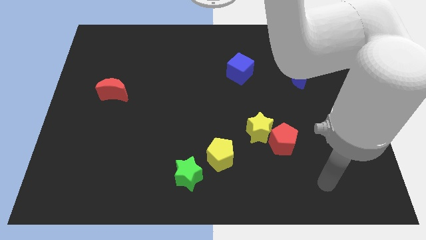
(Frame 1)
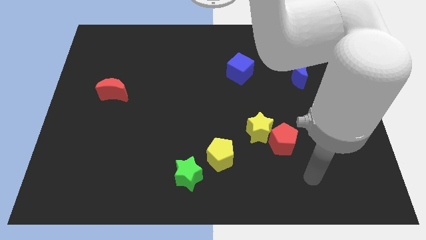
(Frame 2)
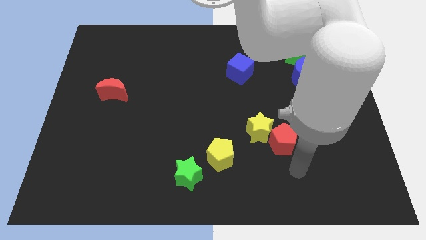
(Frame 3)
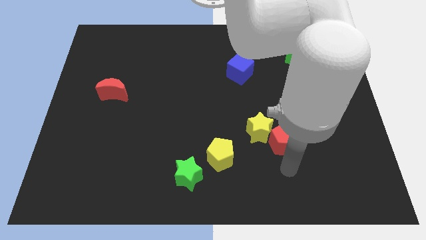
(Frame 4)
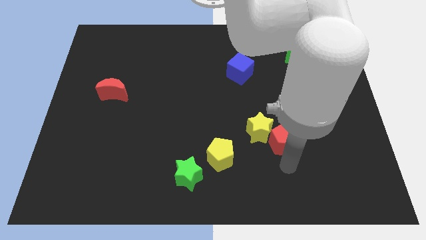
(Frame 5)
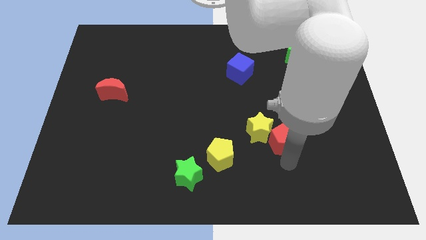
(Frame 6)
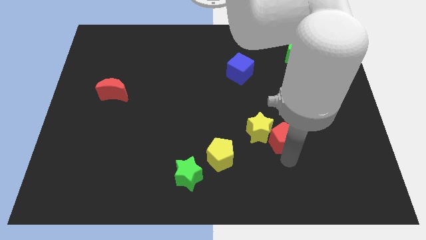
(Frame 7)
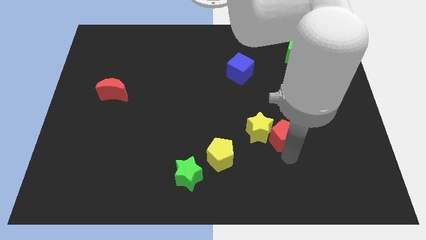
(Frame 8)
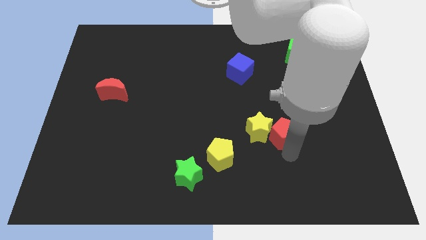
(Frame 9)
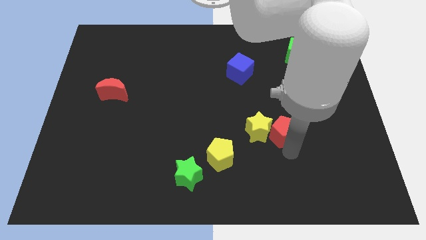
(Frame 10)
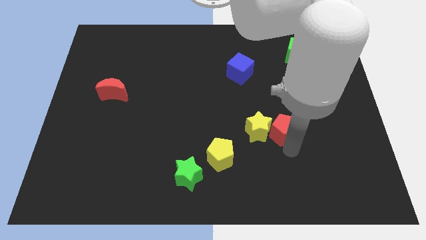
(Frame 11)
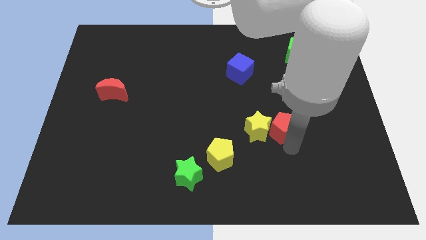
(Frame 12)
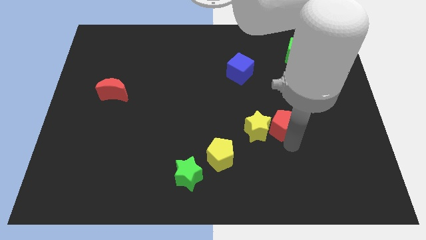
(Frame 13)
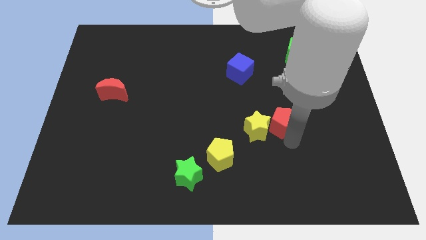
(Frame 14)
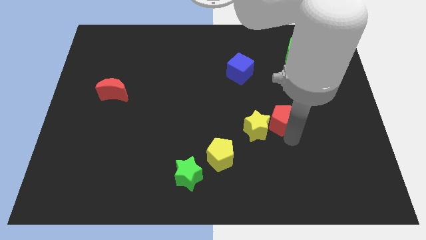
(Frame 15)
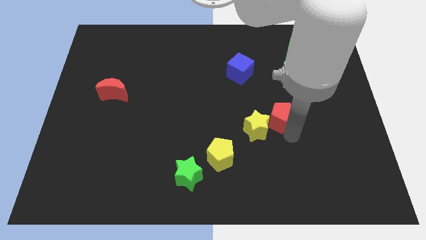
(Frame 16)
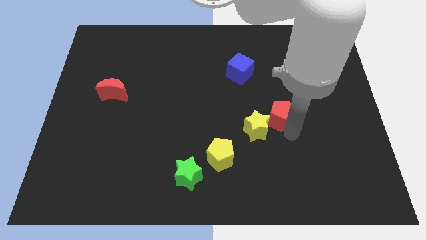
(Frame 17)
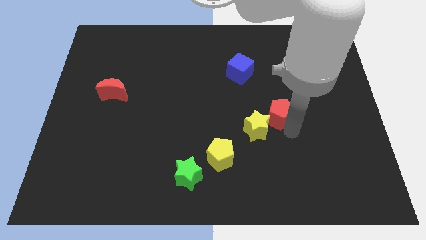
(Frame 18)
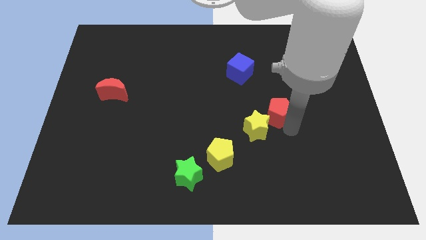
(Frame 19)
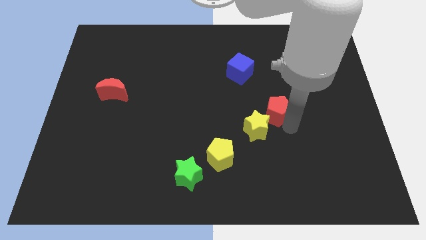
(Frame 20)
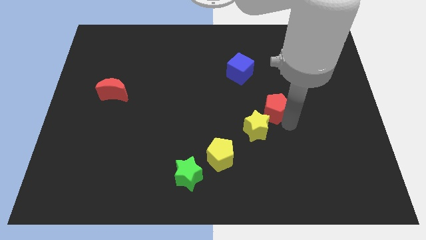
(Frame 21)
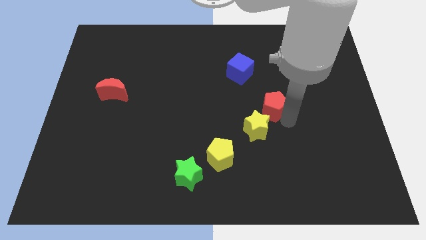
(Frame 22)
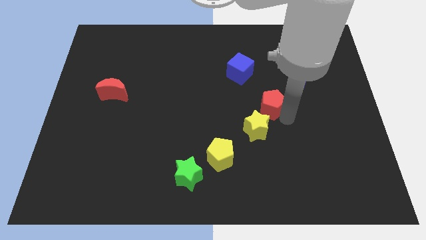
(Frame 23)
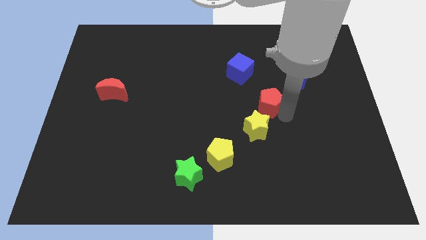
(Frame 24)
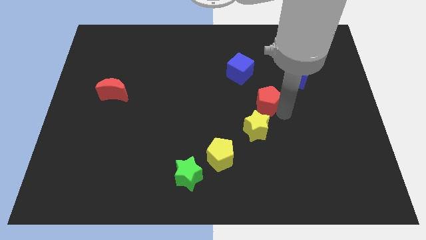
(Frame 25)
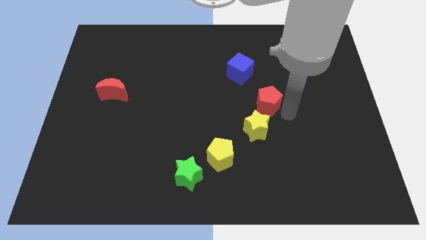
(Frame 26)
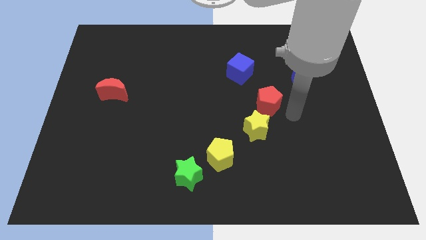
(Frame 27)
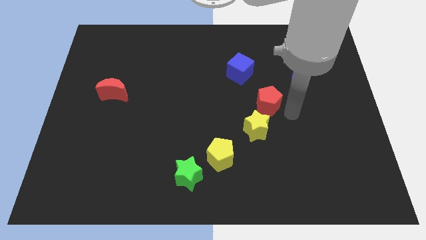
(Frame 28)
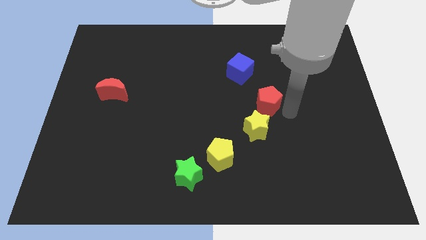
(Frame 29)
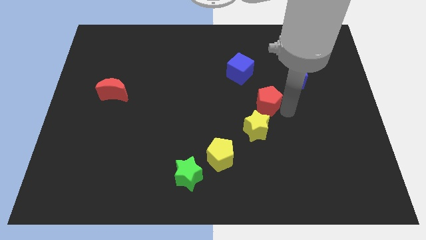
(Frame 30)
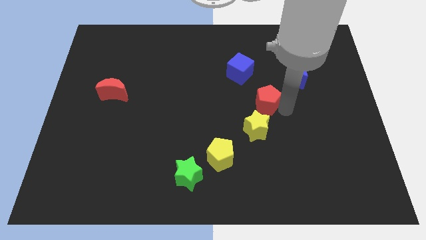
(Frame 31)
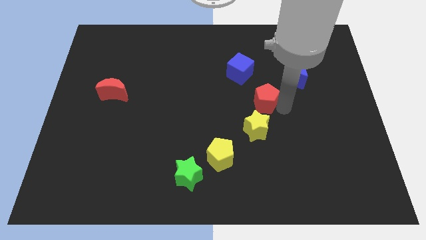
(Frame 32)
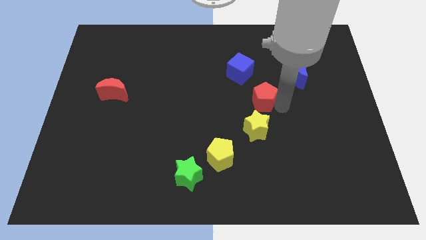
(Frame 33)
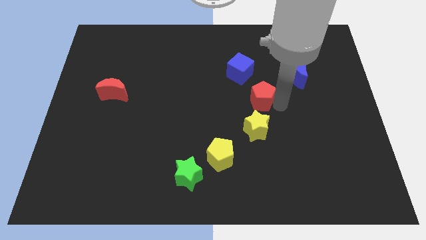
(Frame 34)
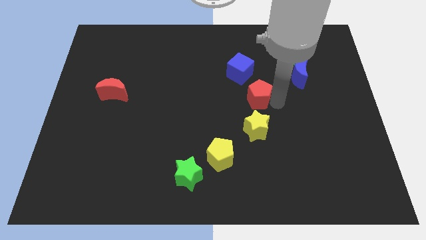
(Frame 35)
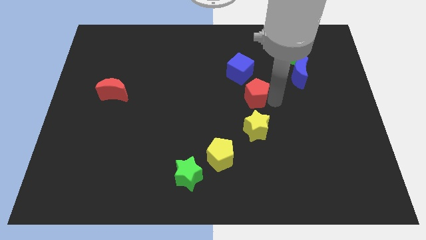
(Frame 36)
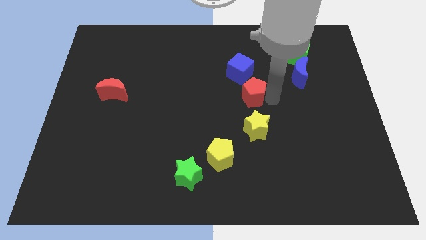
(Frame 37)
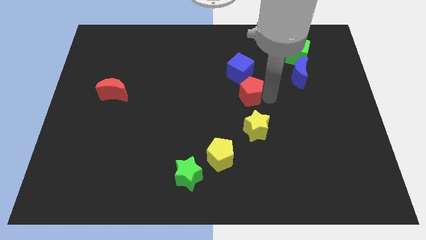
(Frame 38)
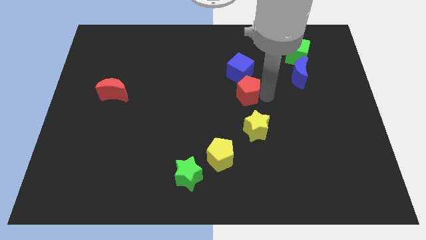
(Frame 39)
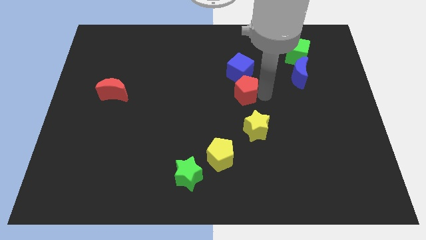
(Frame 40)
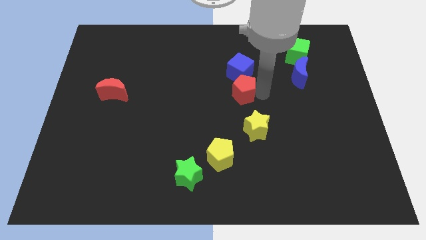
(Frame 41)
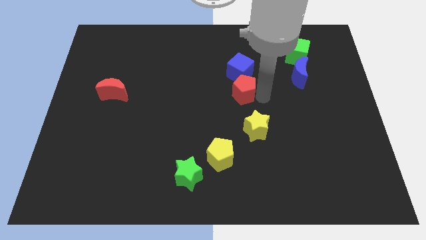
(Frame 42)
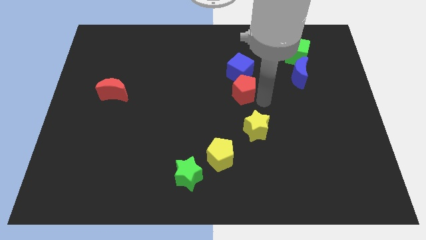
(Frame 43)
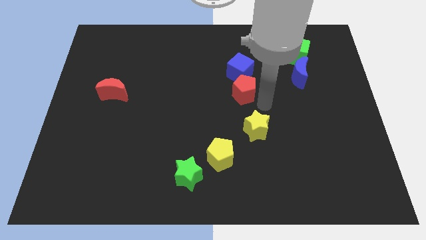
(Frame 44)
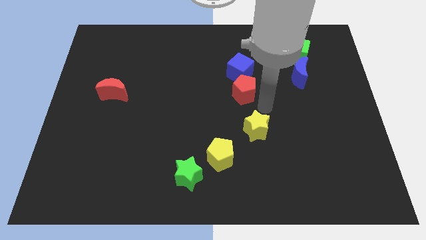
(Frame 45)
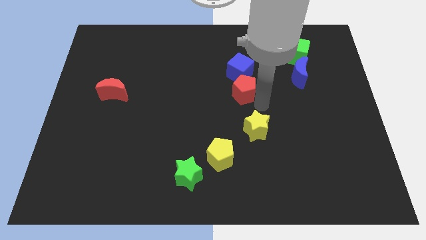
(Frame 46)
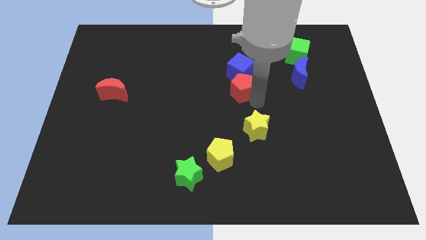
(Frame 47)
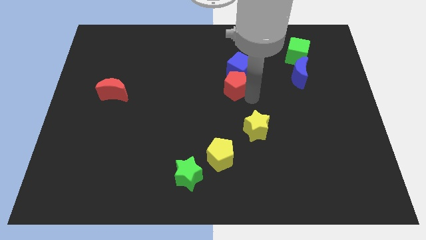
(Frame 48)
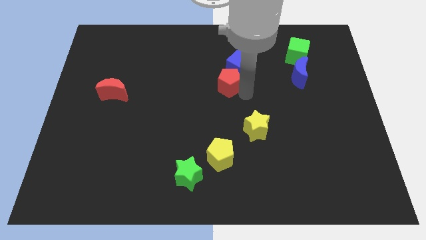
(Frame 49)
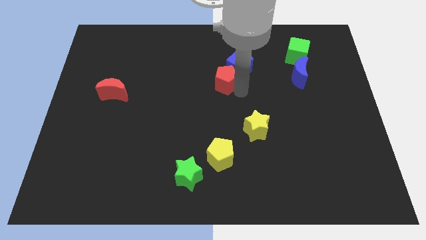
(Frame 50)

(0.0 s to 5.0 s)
push the red pentagon diagonally upwards and to the left

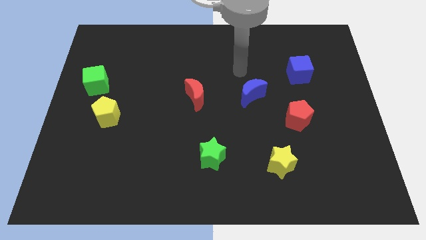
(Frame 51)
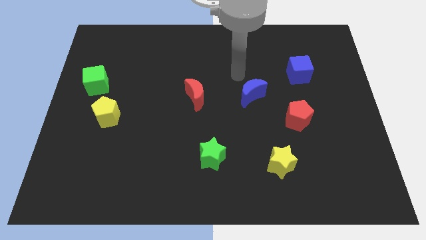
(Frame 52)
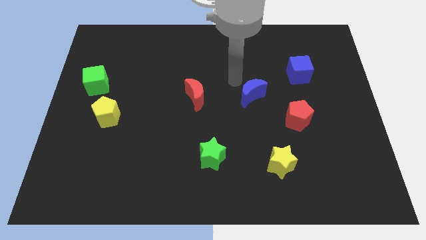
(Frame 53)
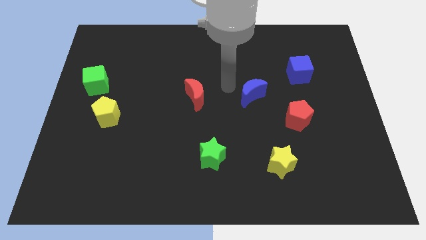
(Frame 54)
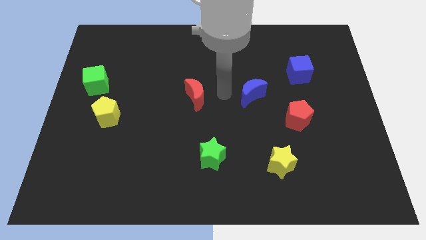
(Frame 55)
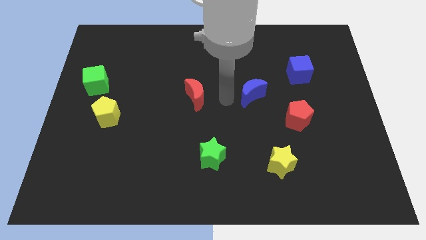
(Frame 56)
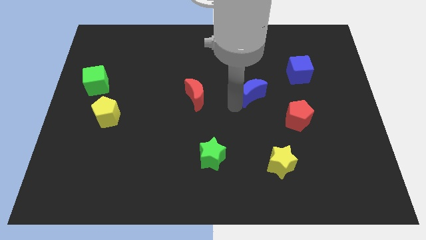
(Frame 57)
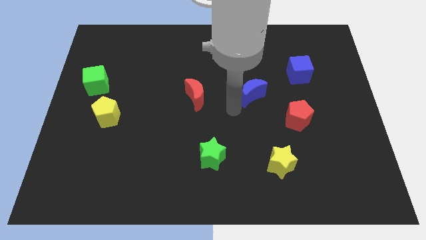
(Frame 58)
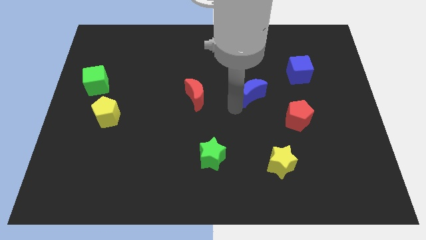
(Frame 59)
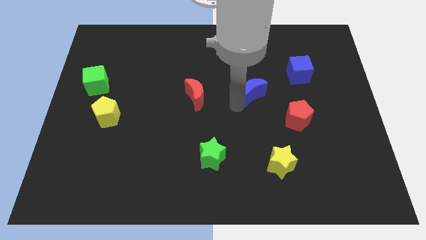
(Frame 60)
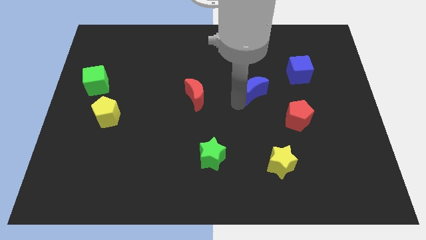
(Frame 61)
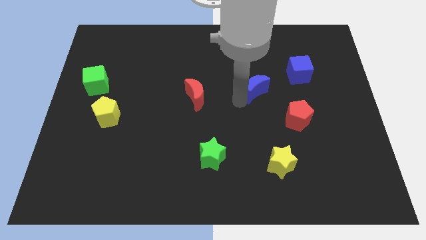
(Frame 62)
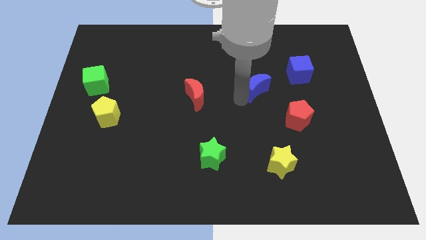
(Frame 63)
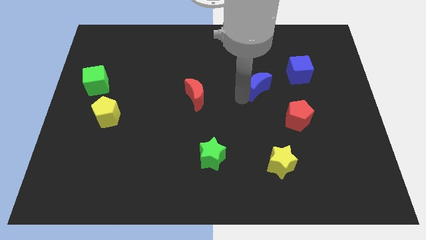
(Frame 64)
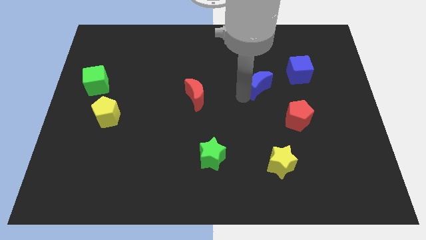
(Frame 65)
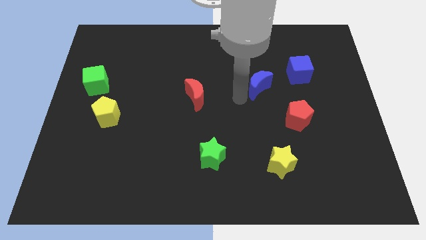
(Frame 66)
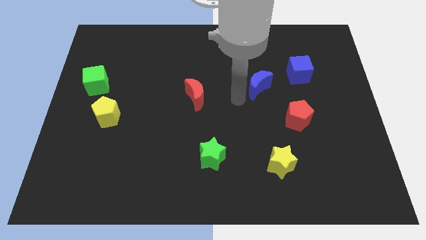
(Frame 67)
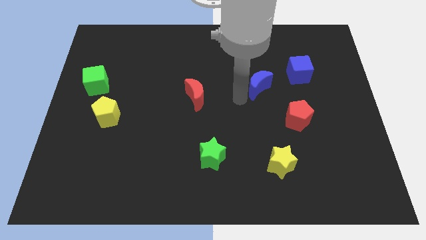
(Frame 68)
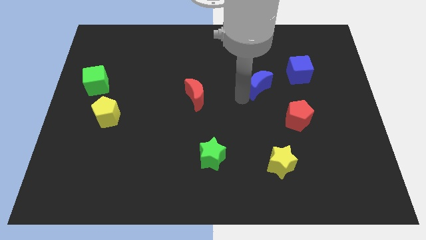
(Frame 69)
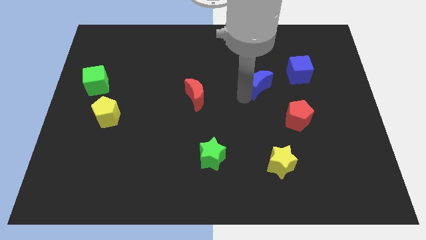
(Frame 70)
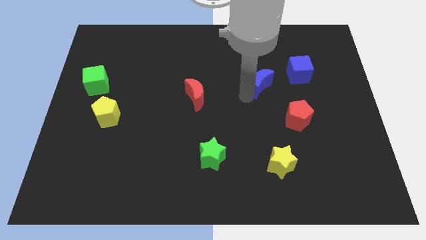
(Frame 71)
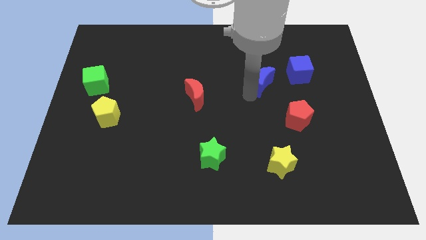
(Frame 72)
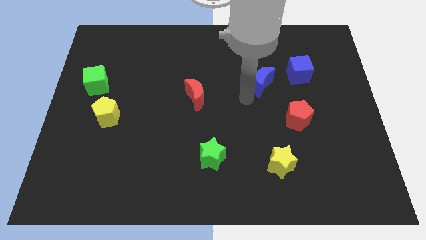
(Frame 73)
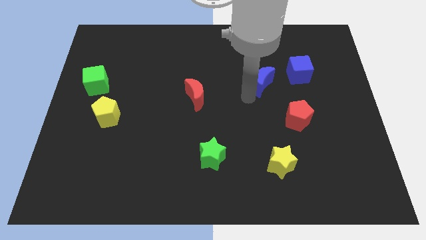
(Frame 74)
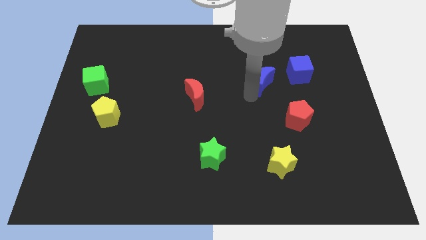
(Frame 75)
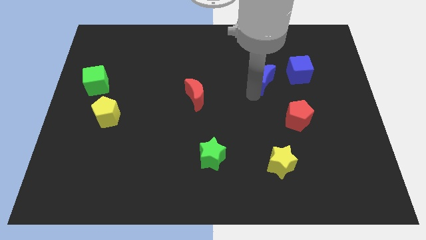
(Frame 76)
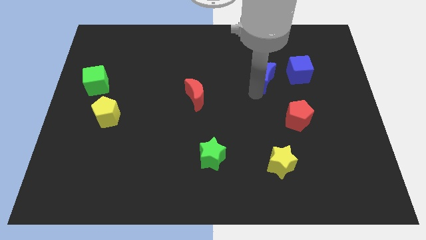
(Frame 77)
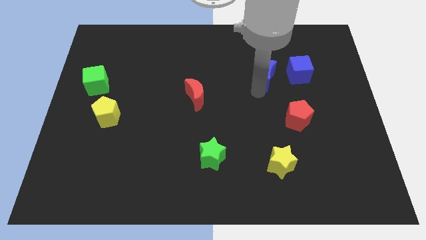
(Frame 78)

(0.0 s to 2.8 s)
slightly push the blue moon up and to the right diagonally

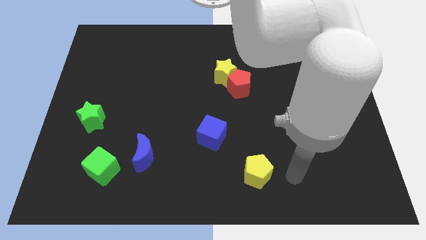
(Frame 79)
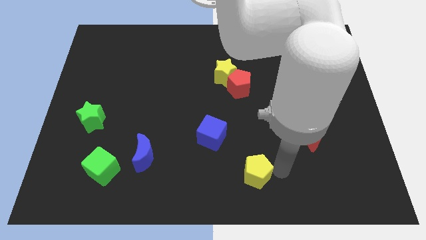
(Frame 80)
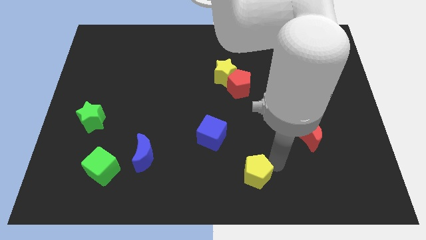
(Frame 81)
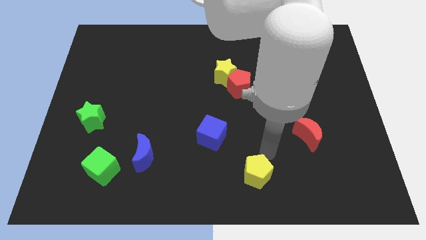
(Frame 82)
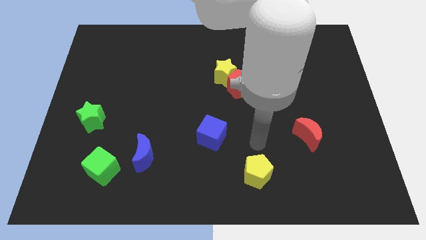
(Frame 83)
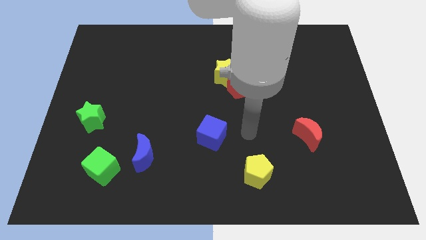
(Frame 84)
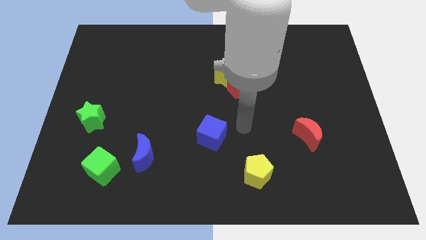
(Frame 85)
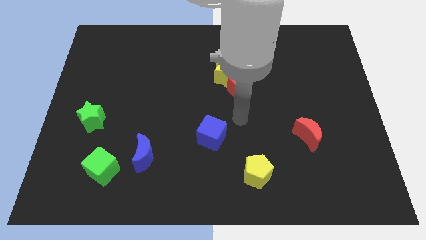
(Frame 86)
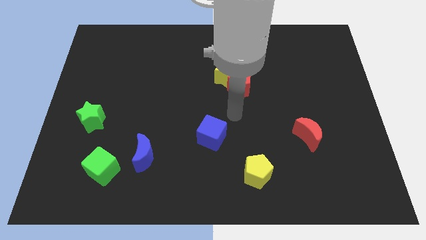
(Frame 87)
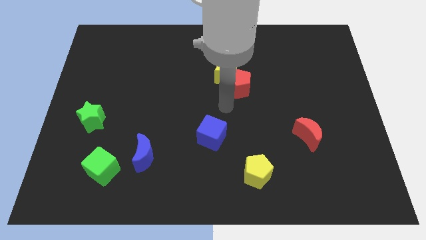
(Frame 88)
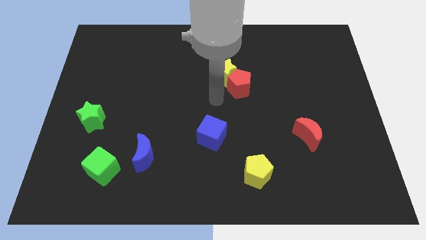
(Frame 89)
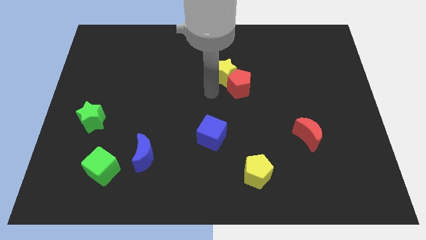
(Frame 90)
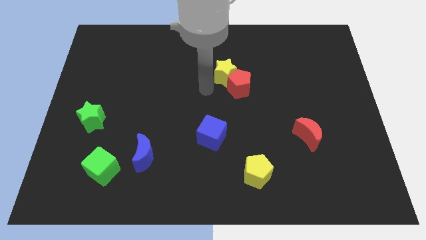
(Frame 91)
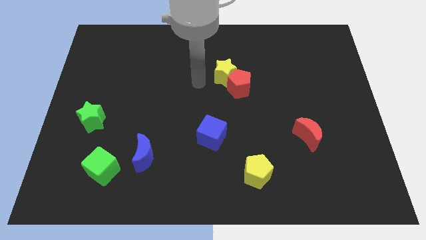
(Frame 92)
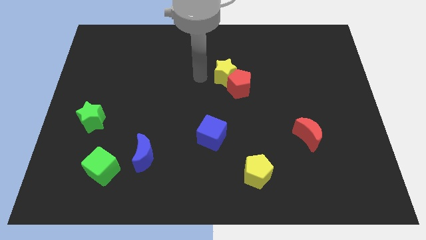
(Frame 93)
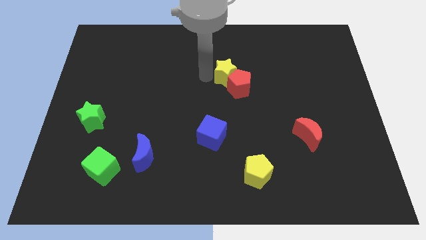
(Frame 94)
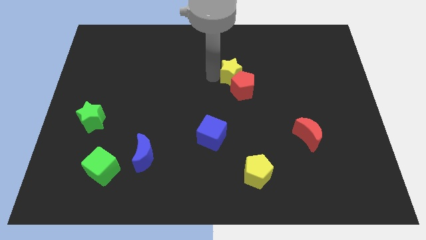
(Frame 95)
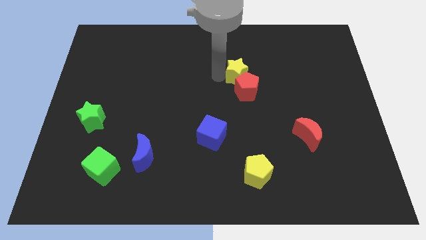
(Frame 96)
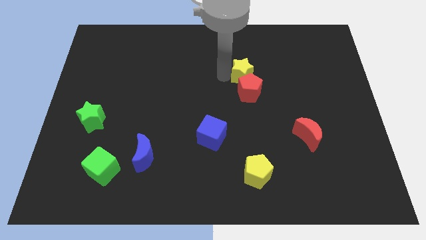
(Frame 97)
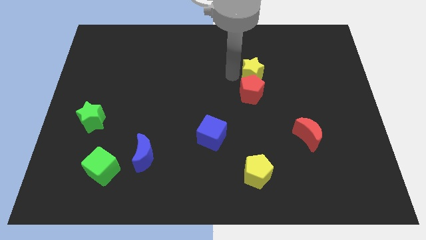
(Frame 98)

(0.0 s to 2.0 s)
slightly move the yellow star to the right
